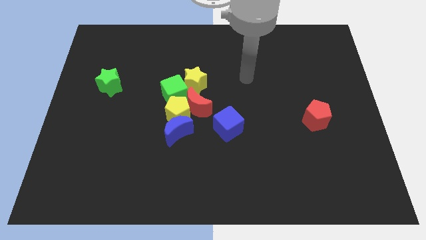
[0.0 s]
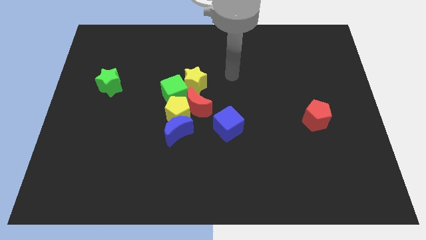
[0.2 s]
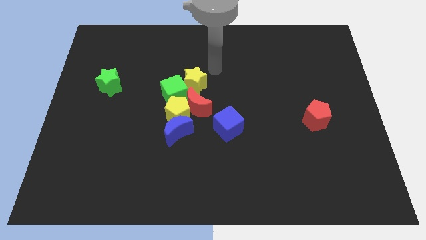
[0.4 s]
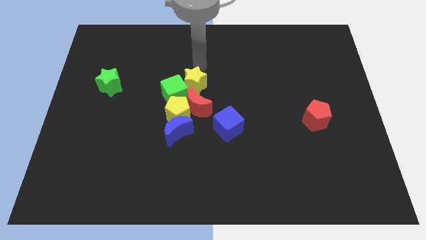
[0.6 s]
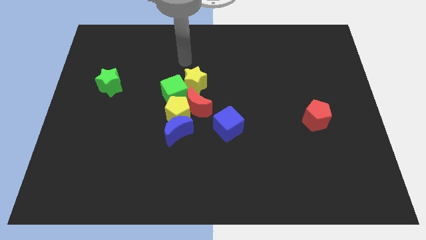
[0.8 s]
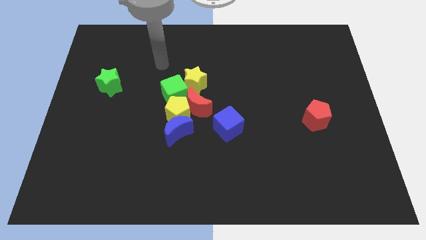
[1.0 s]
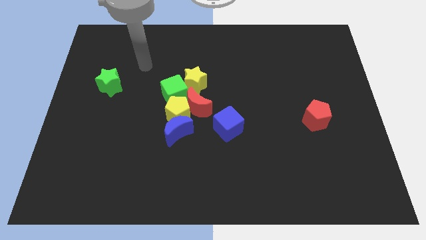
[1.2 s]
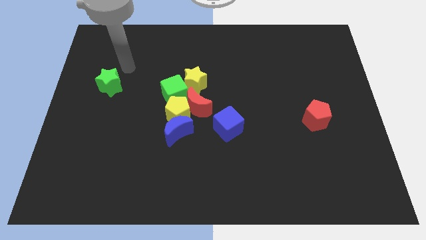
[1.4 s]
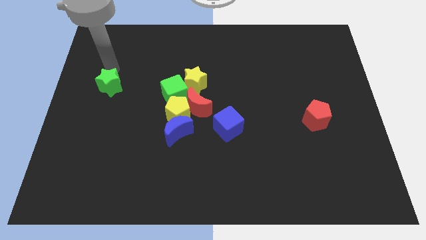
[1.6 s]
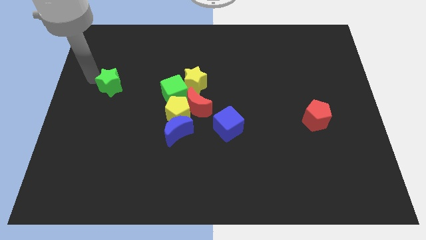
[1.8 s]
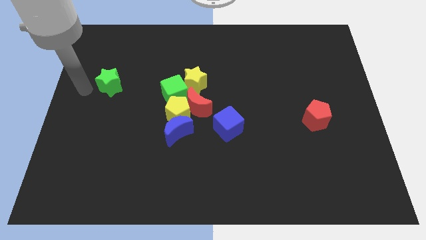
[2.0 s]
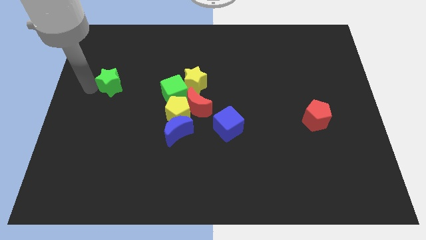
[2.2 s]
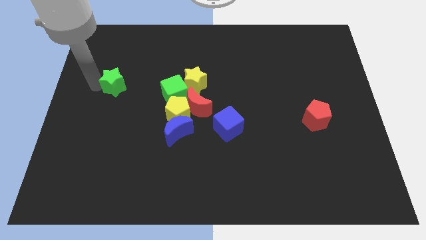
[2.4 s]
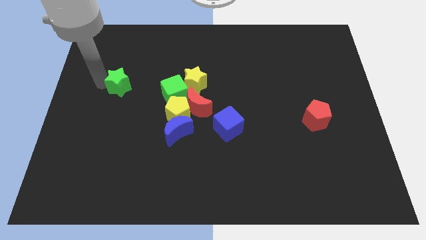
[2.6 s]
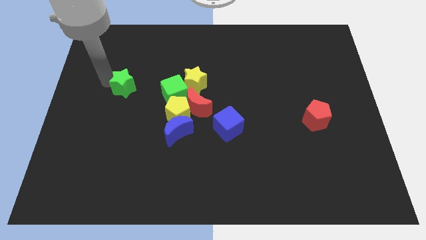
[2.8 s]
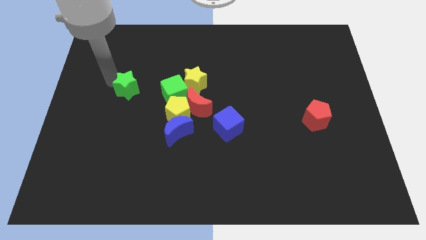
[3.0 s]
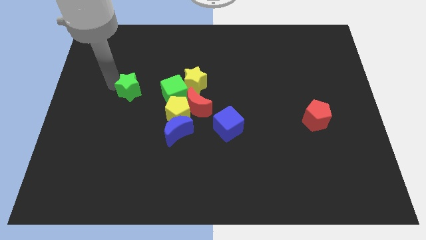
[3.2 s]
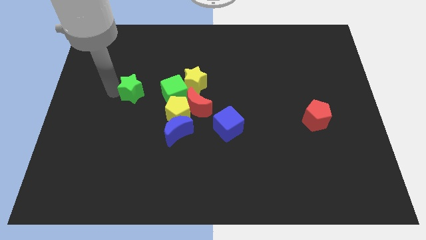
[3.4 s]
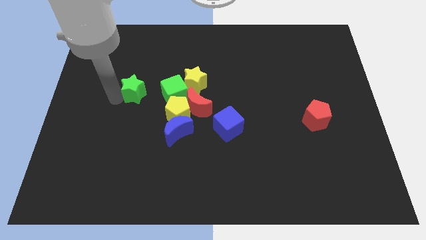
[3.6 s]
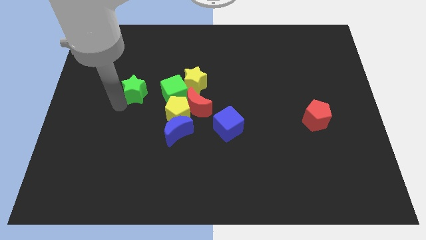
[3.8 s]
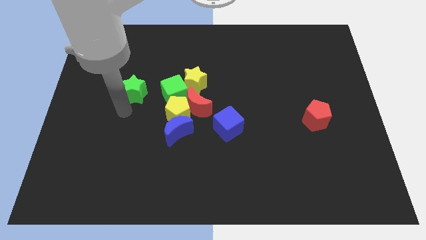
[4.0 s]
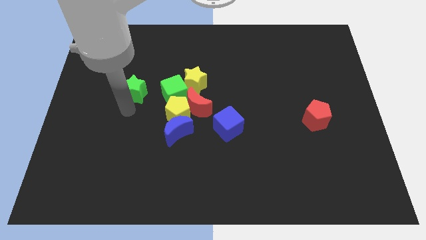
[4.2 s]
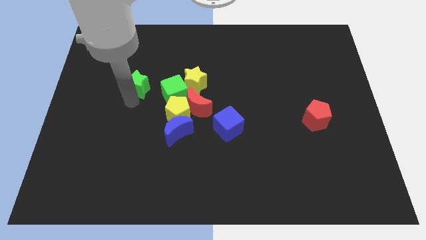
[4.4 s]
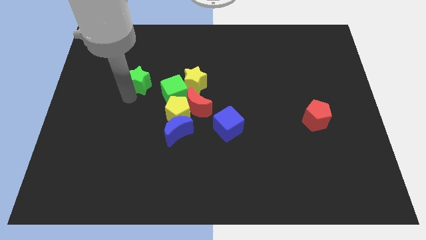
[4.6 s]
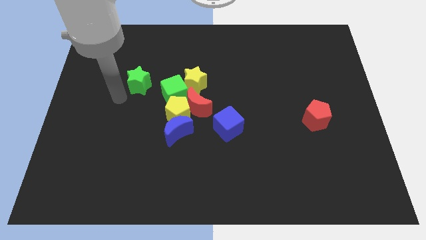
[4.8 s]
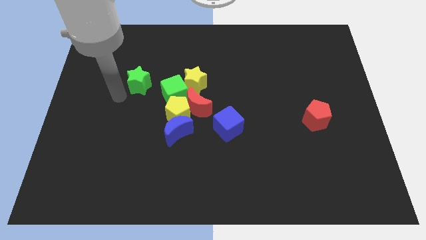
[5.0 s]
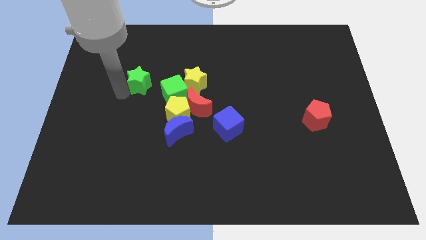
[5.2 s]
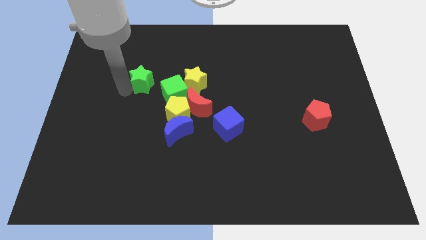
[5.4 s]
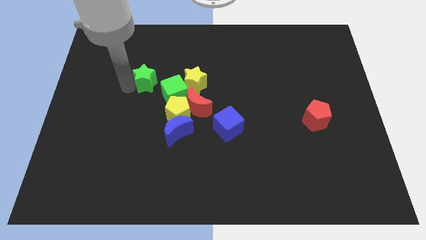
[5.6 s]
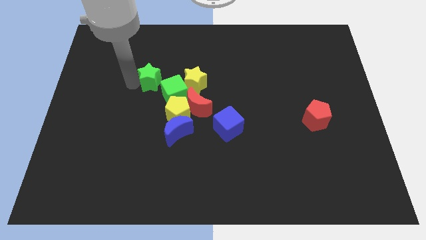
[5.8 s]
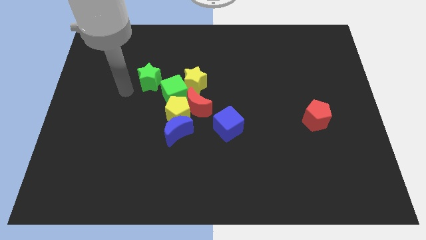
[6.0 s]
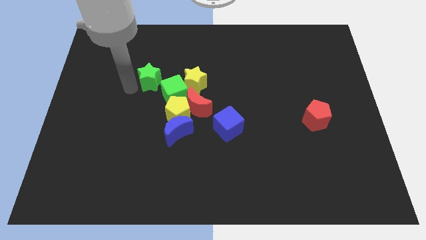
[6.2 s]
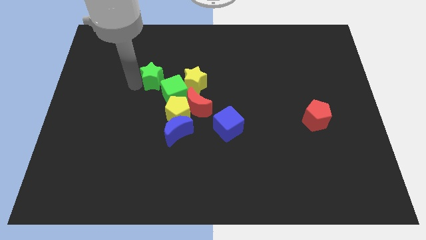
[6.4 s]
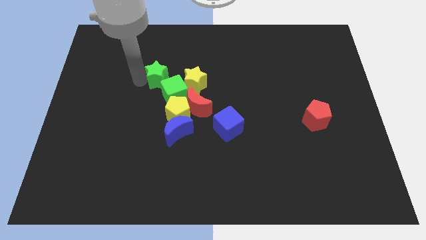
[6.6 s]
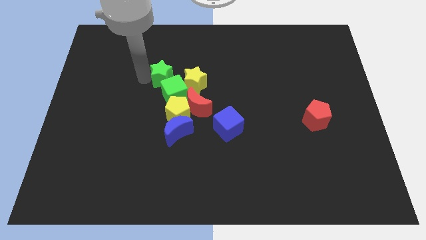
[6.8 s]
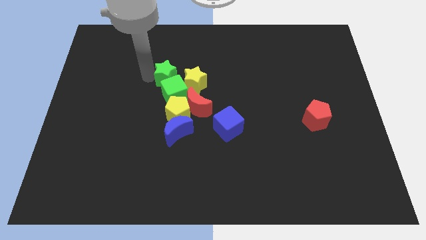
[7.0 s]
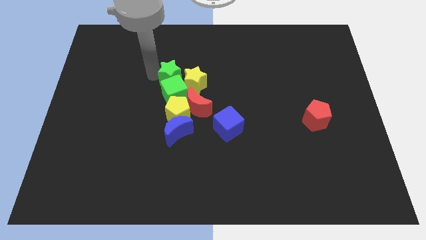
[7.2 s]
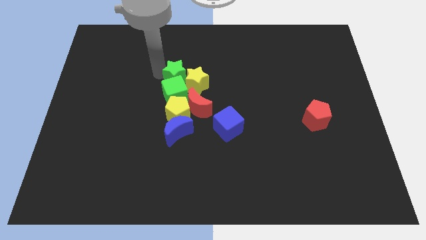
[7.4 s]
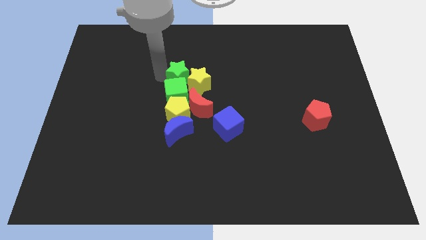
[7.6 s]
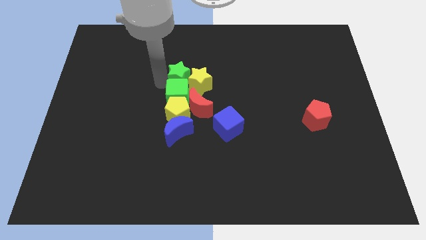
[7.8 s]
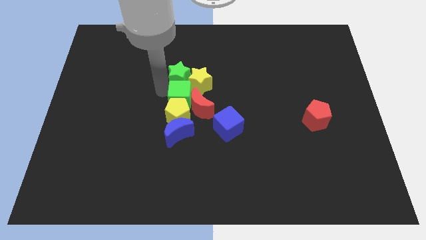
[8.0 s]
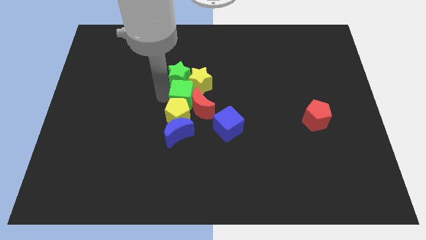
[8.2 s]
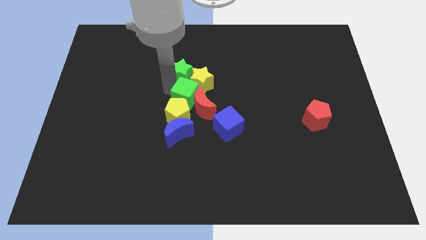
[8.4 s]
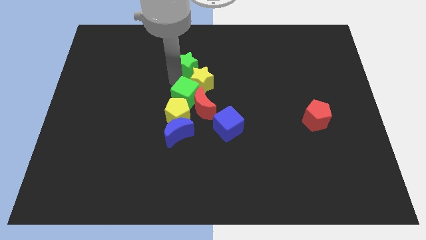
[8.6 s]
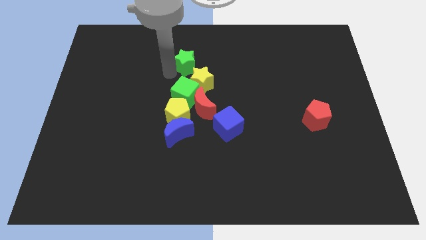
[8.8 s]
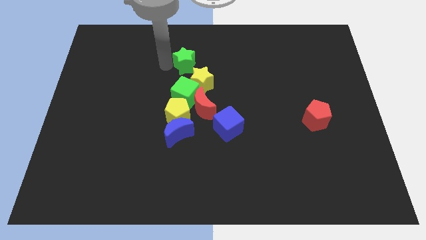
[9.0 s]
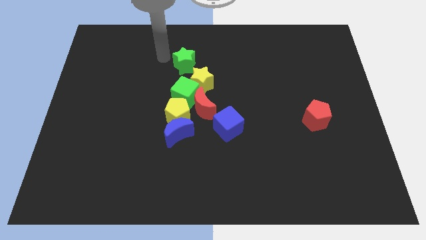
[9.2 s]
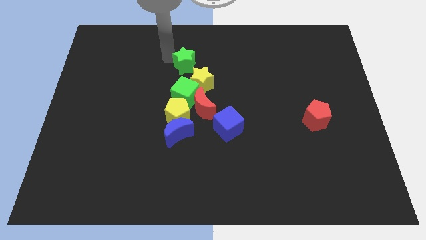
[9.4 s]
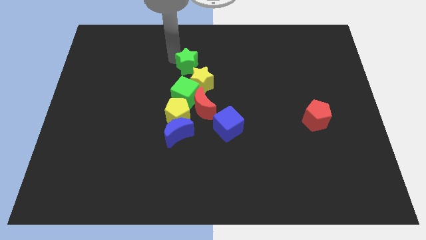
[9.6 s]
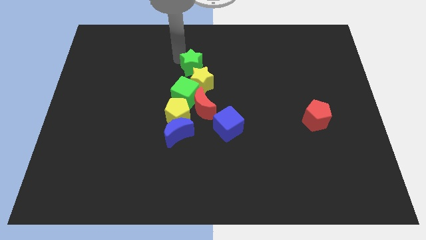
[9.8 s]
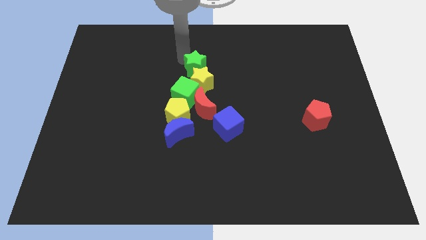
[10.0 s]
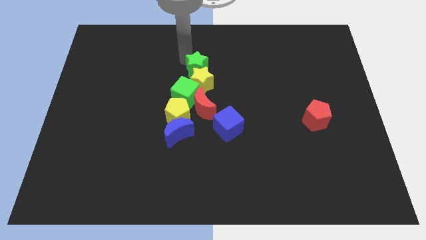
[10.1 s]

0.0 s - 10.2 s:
push the green star to the right

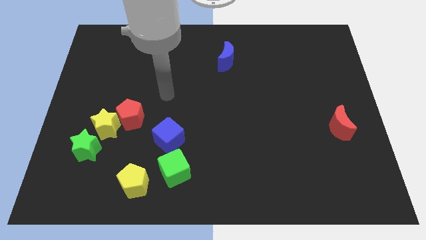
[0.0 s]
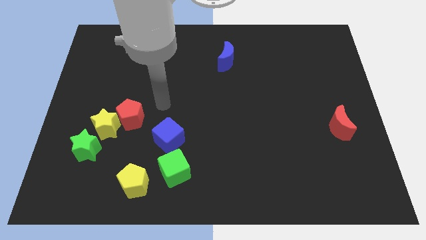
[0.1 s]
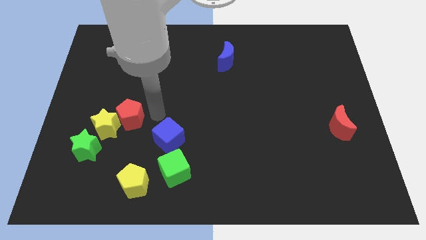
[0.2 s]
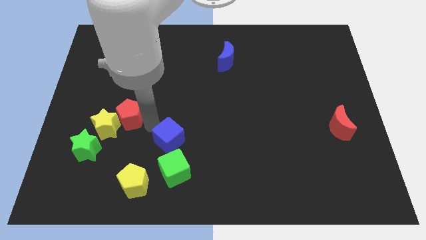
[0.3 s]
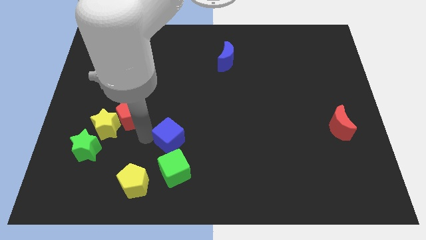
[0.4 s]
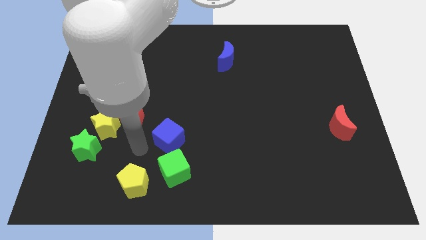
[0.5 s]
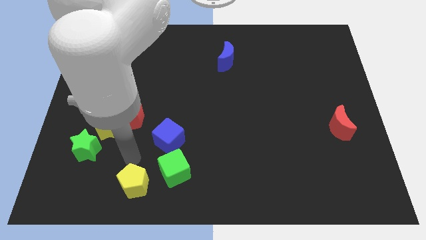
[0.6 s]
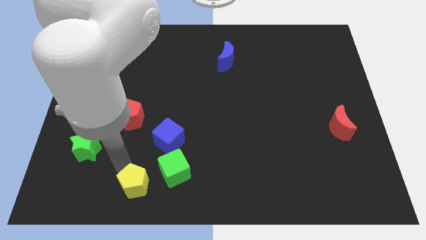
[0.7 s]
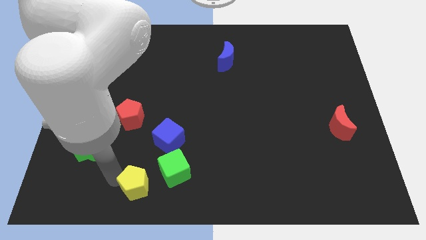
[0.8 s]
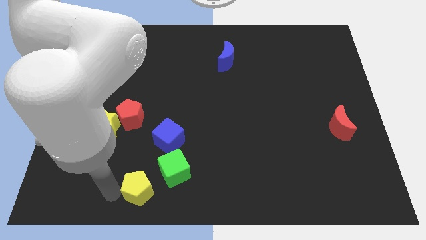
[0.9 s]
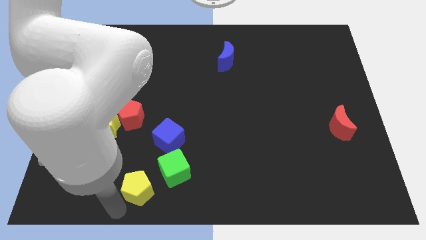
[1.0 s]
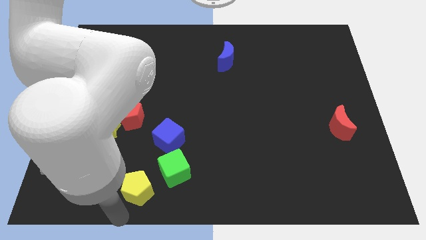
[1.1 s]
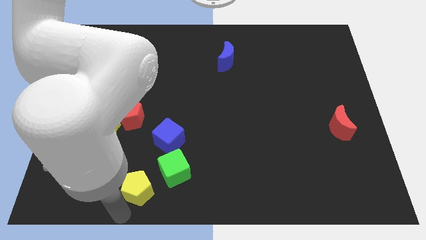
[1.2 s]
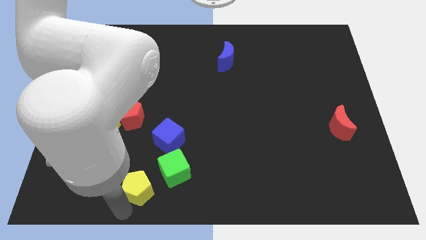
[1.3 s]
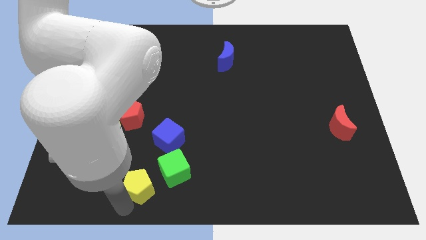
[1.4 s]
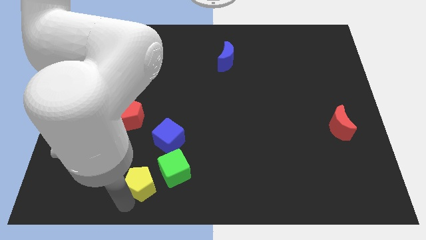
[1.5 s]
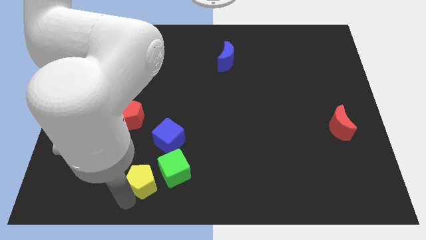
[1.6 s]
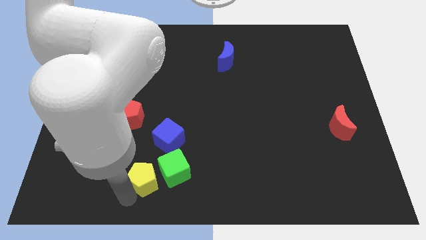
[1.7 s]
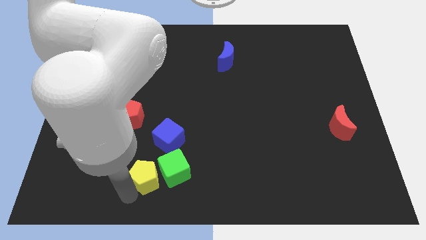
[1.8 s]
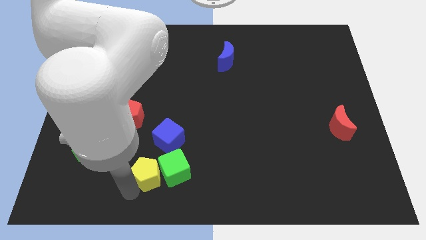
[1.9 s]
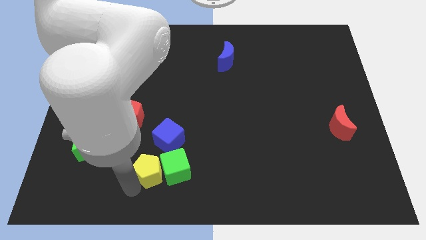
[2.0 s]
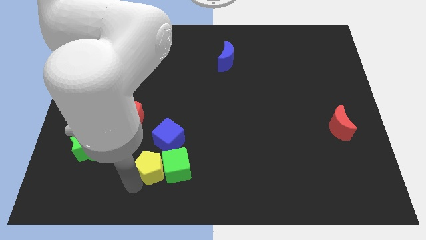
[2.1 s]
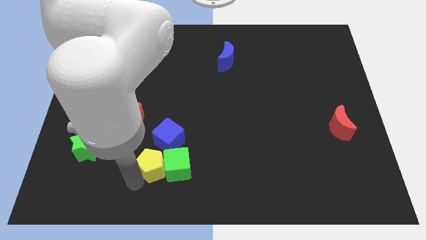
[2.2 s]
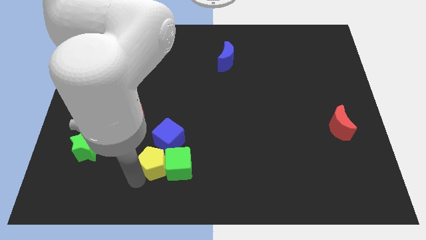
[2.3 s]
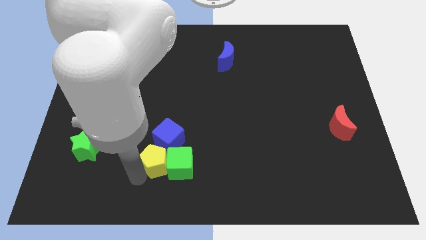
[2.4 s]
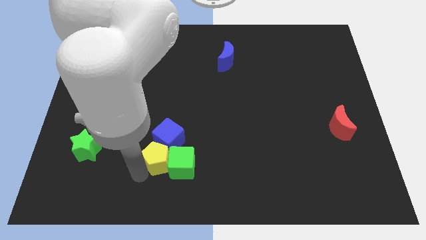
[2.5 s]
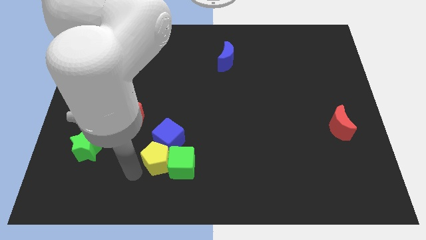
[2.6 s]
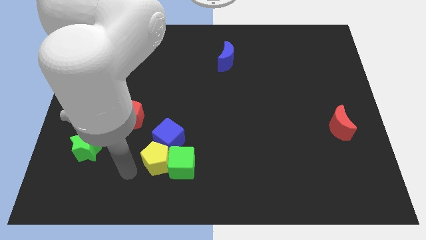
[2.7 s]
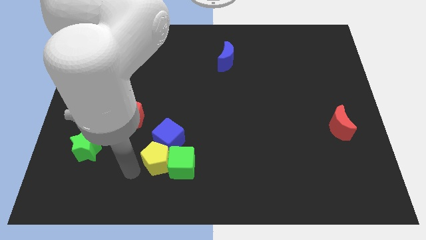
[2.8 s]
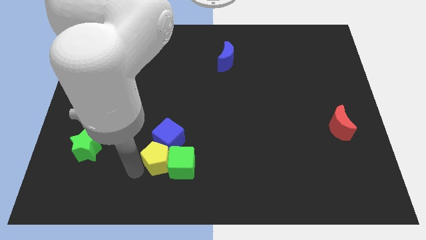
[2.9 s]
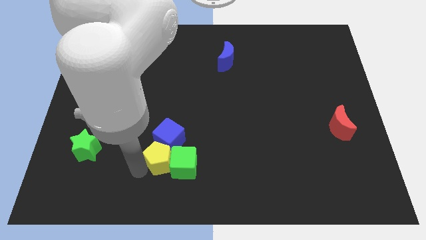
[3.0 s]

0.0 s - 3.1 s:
push the yellow pentagon diagonally upwards and to the right somewhat

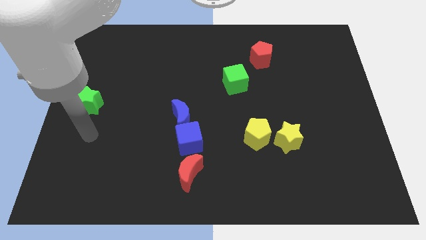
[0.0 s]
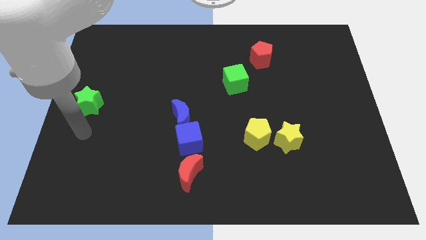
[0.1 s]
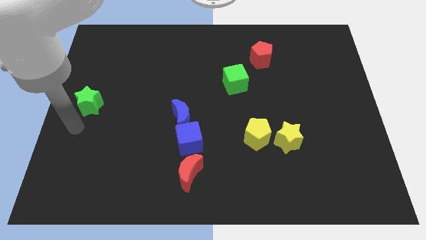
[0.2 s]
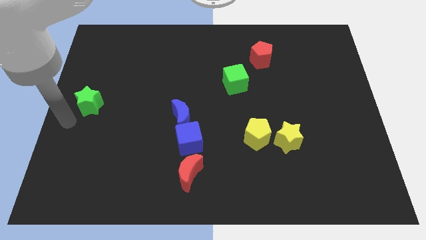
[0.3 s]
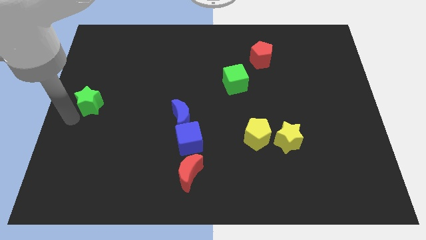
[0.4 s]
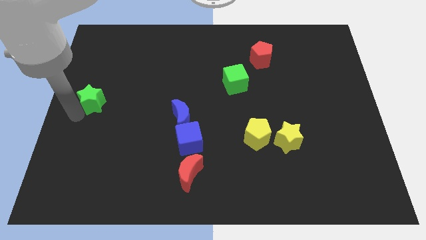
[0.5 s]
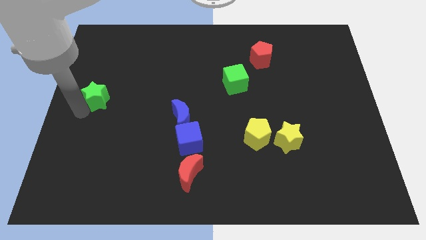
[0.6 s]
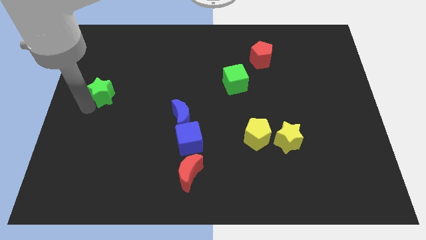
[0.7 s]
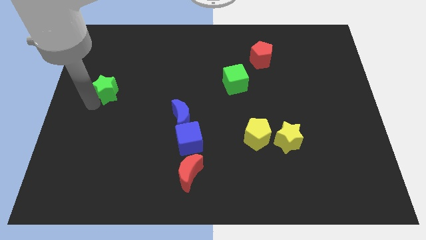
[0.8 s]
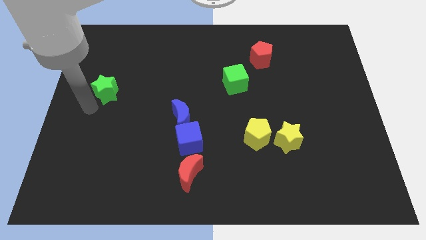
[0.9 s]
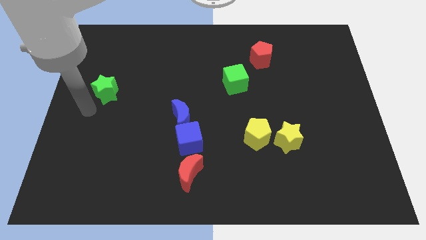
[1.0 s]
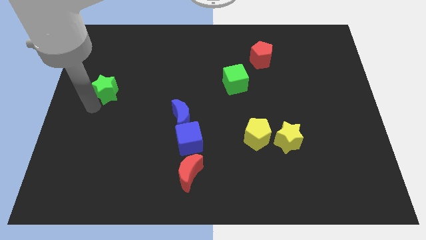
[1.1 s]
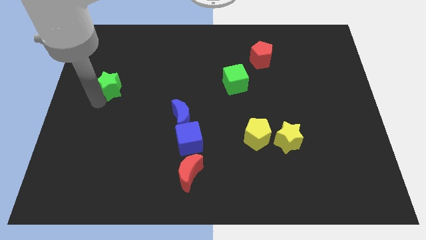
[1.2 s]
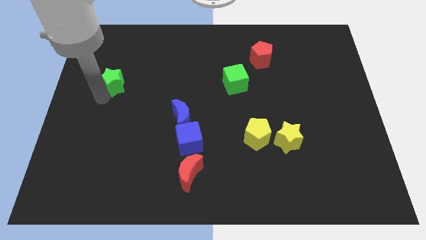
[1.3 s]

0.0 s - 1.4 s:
push the green star slightly up and right
